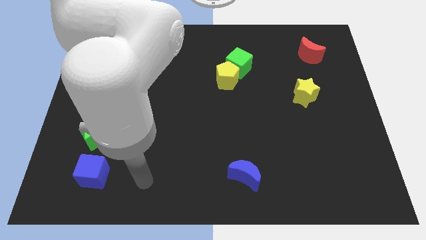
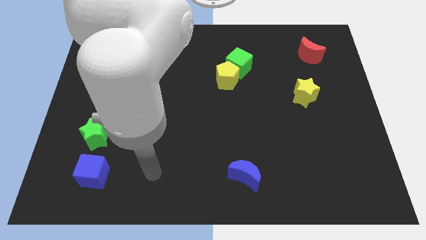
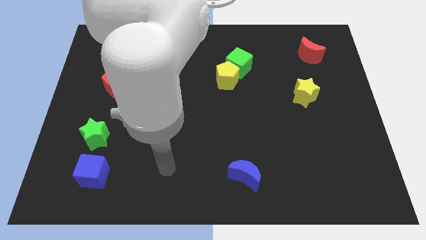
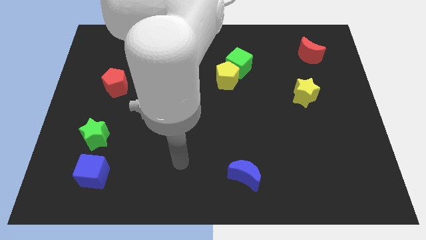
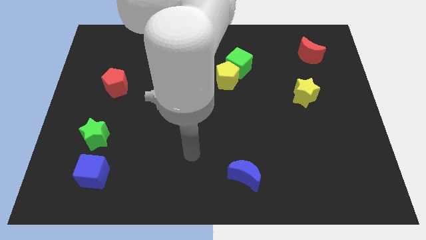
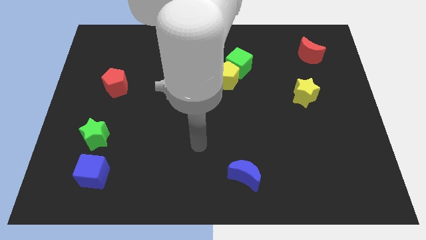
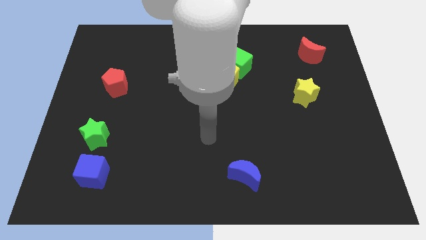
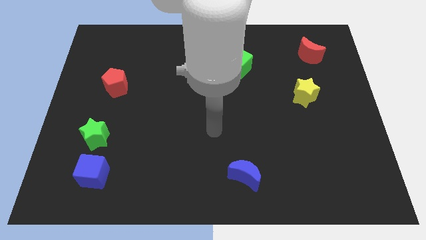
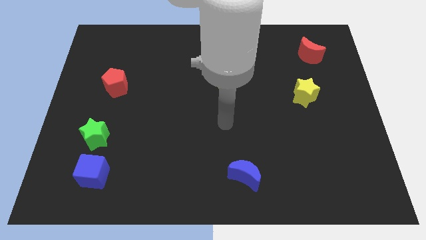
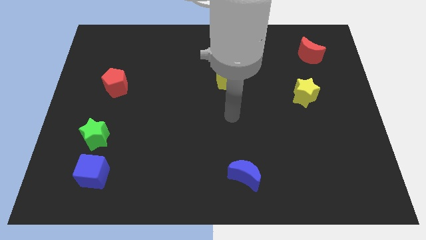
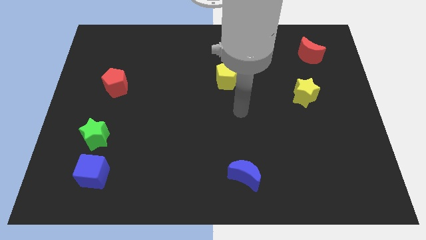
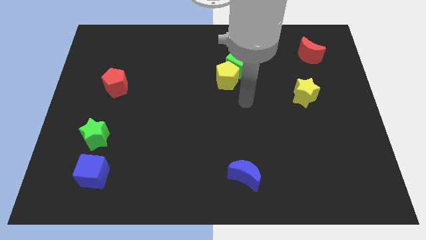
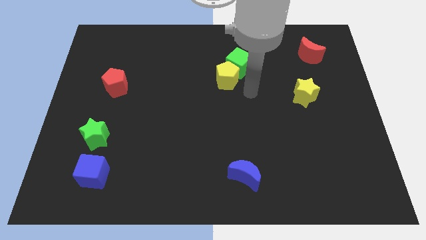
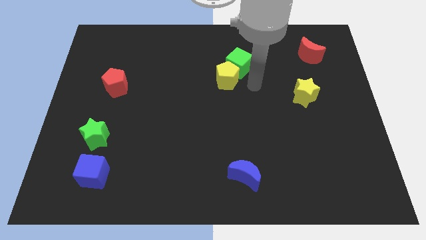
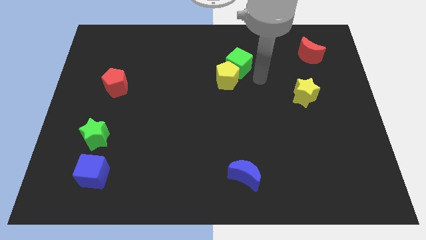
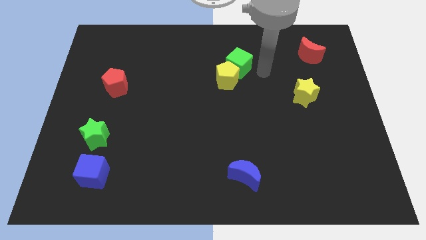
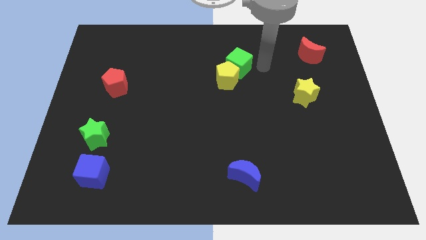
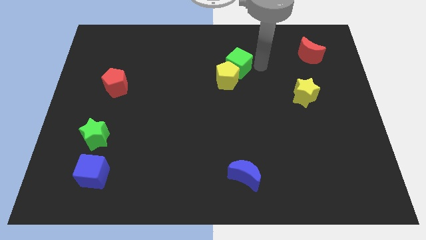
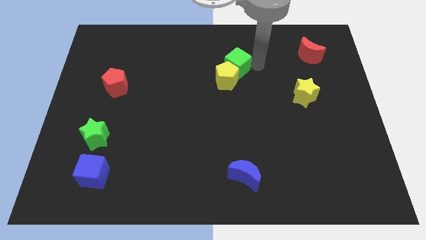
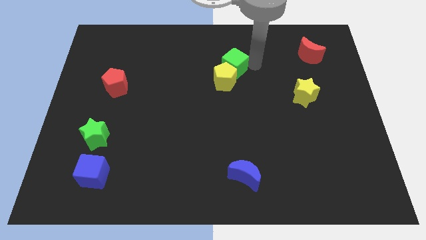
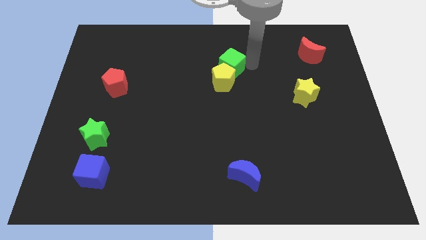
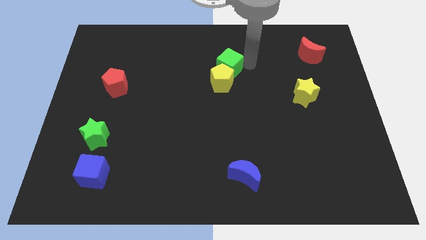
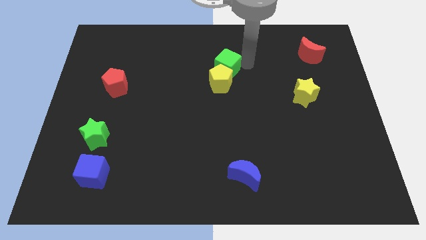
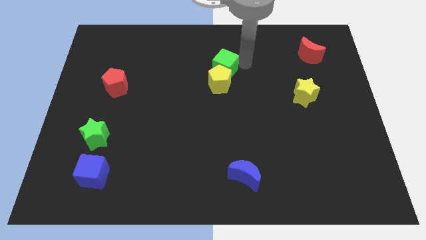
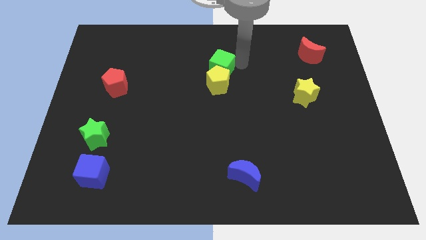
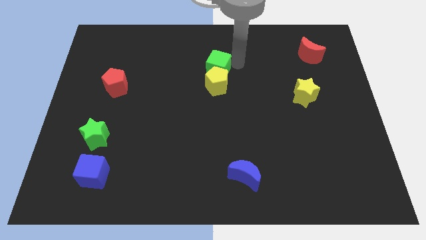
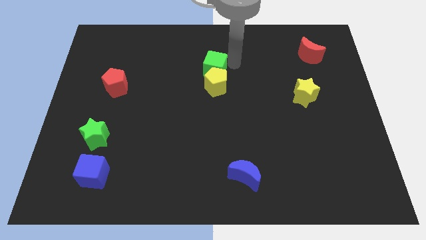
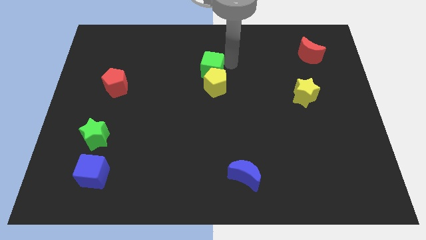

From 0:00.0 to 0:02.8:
slightly slide the green cube to the left

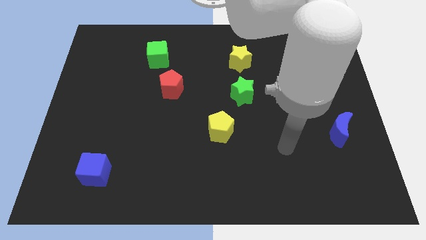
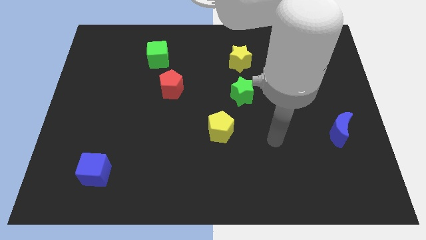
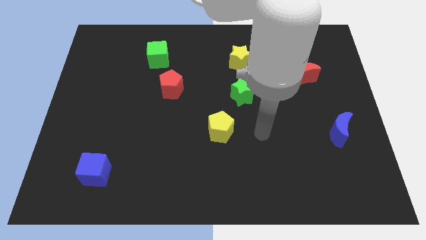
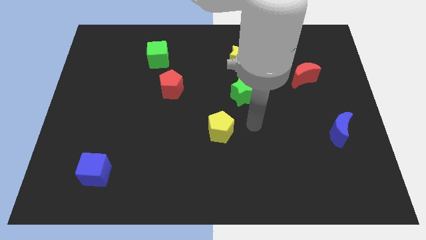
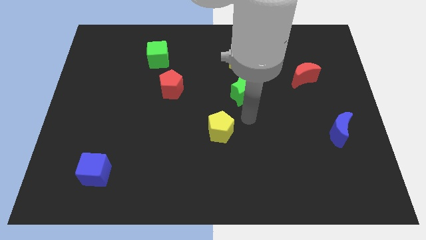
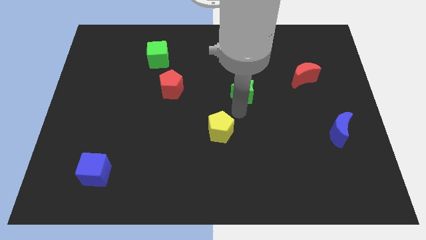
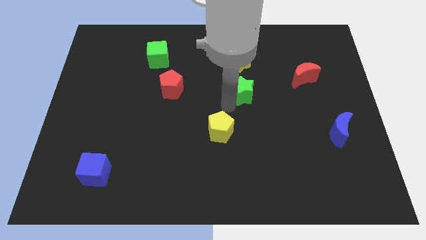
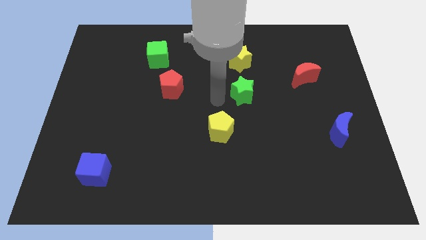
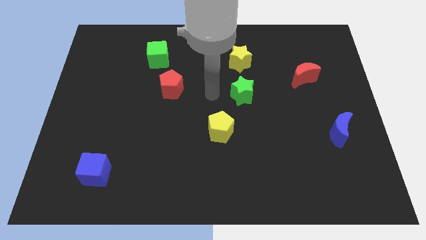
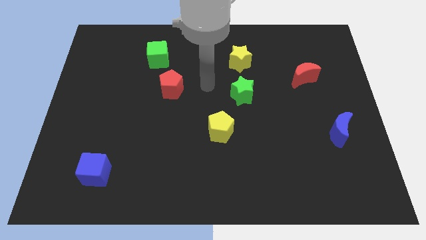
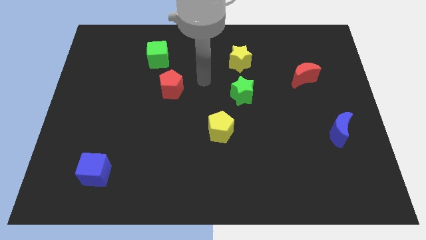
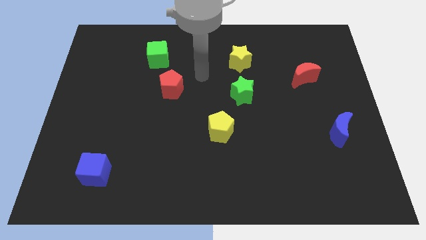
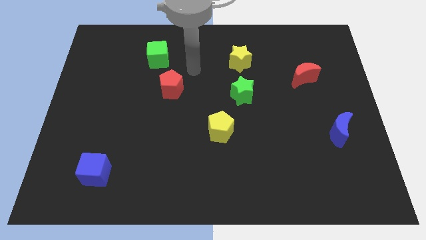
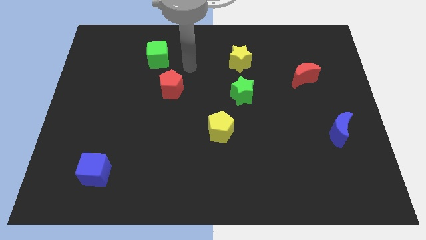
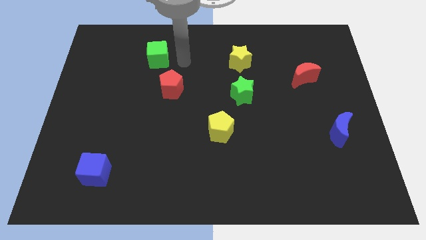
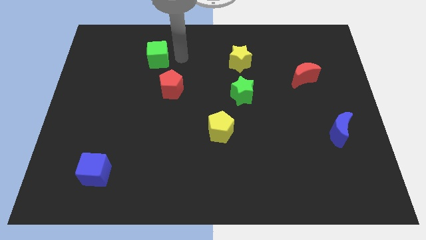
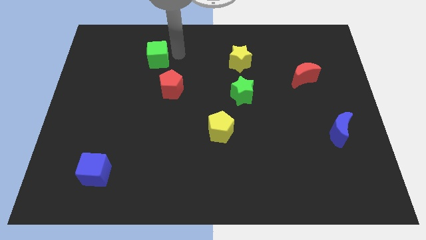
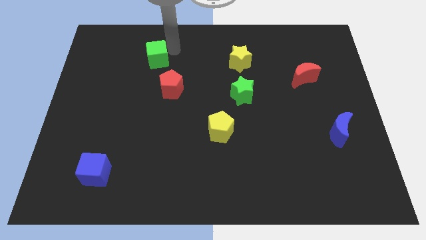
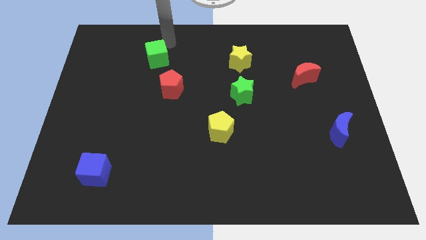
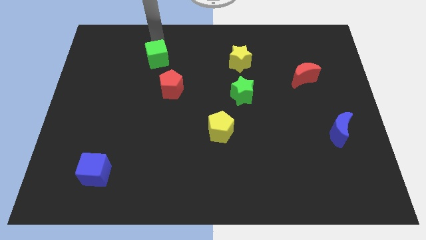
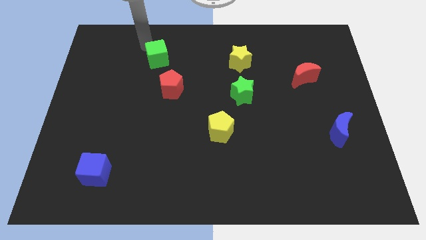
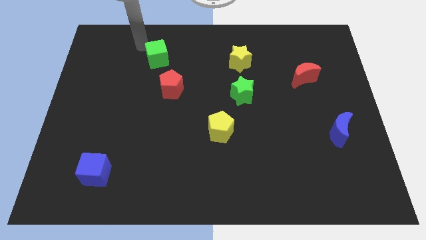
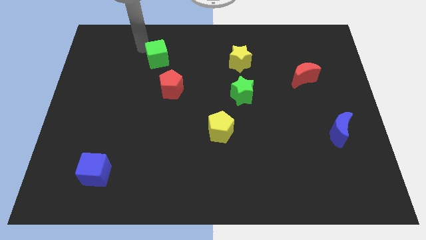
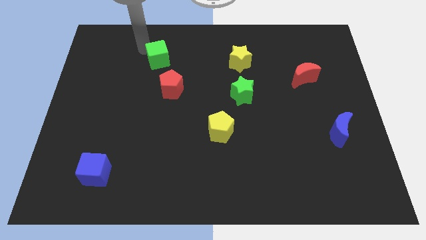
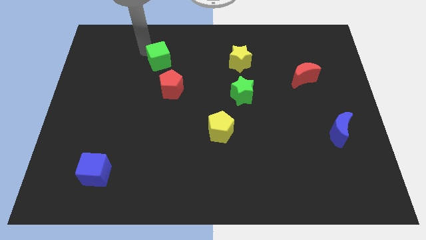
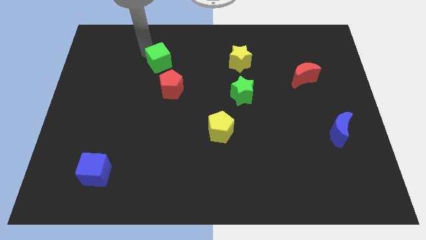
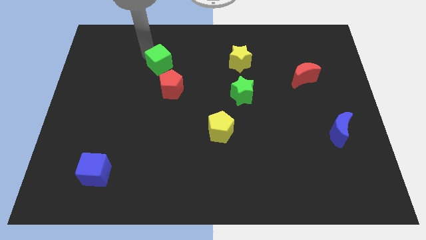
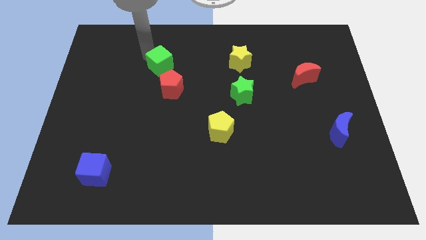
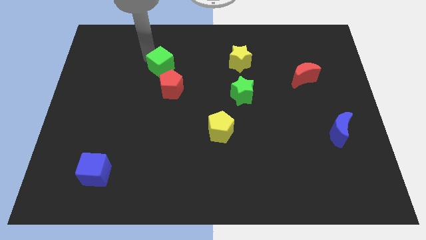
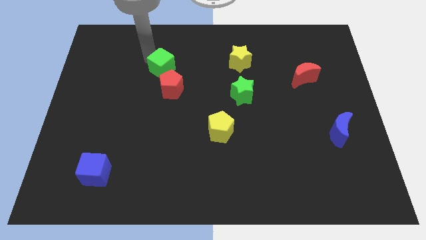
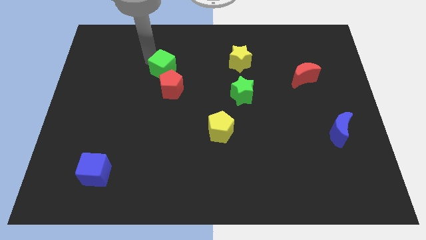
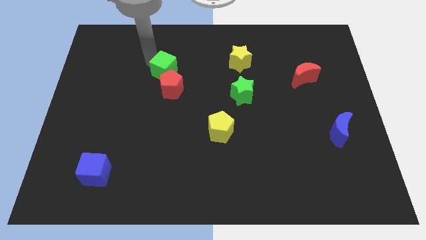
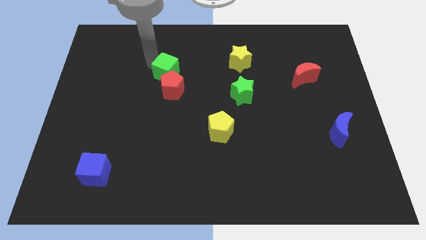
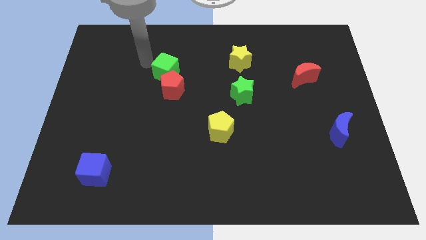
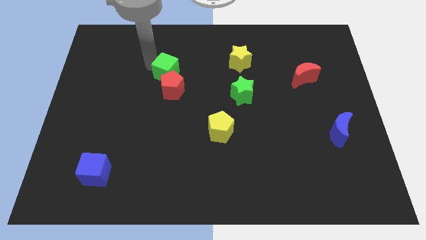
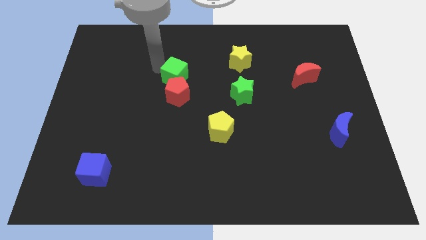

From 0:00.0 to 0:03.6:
push the green cube a bit down and right diagonally

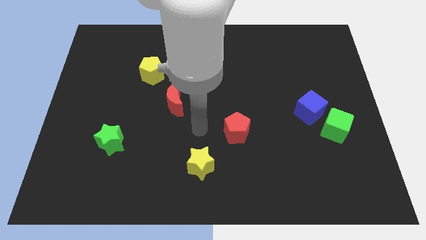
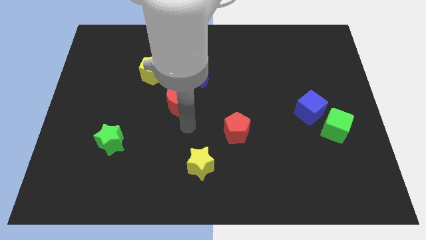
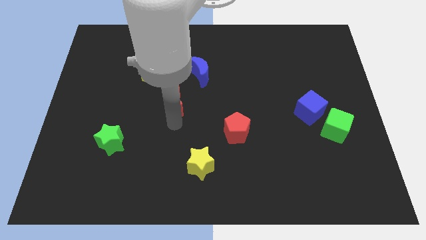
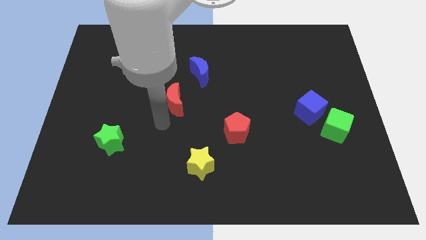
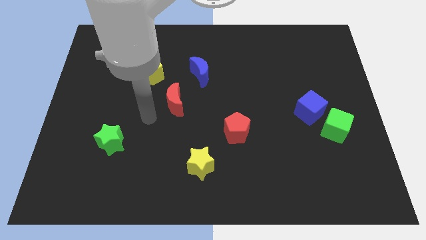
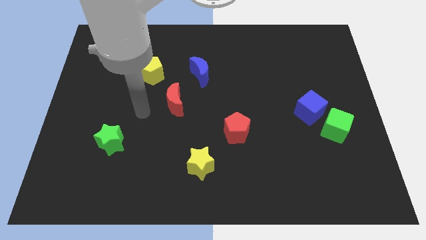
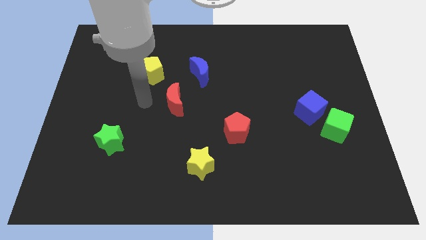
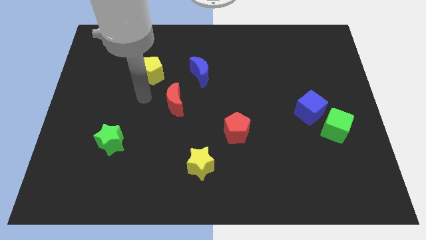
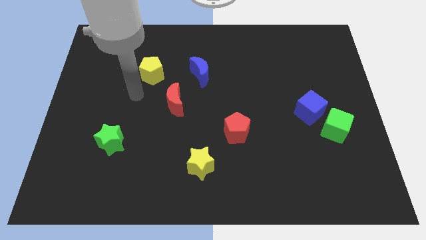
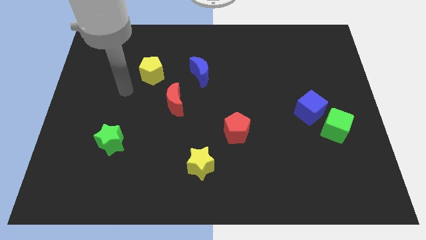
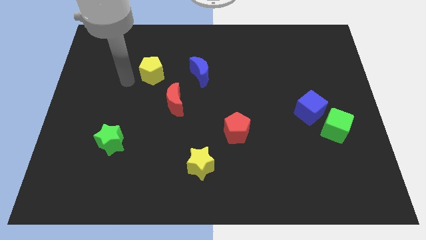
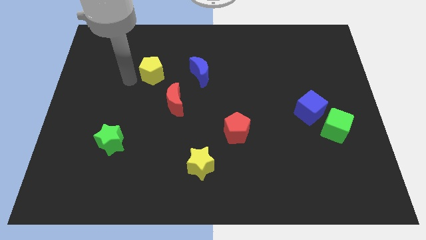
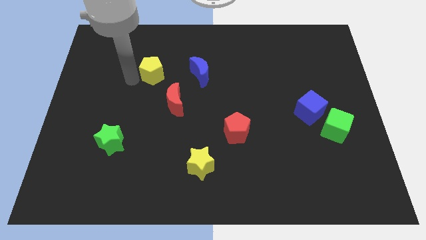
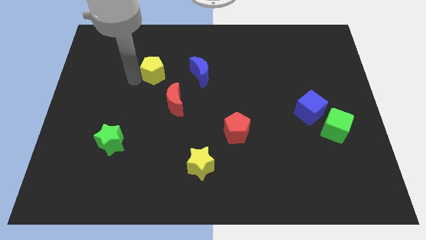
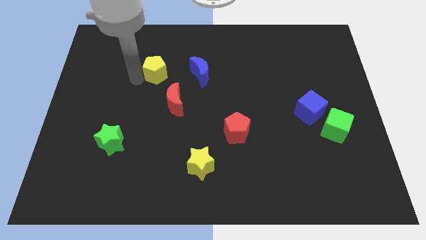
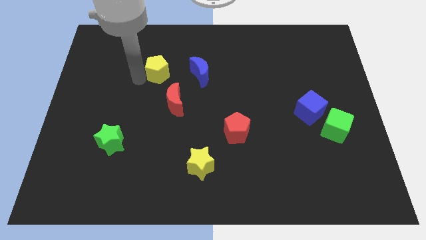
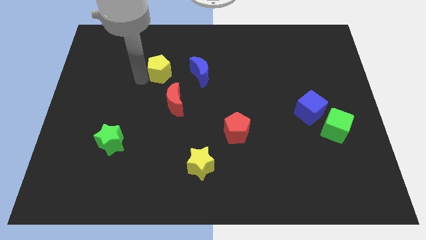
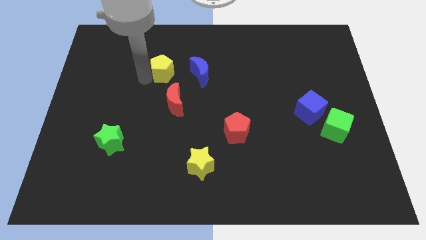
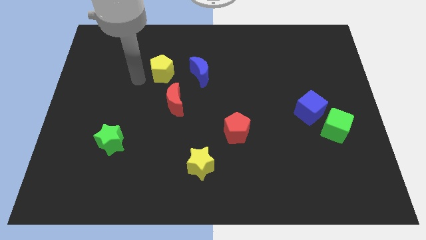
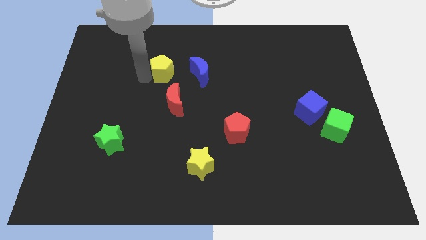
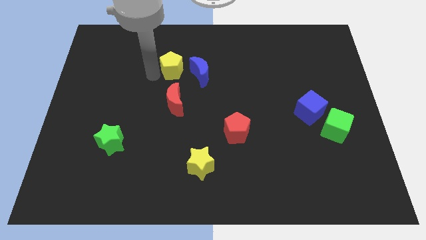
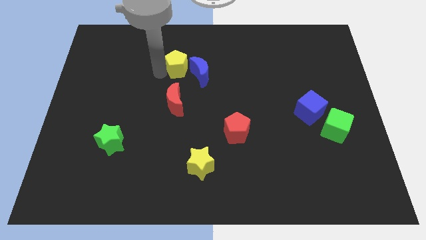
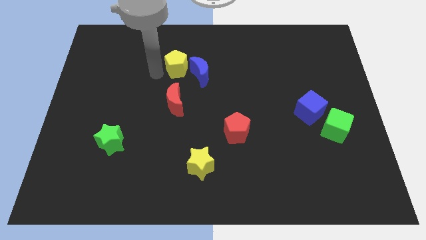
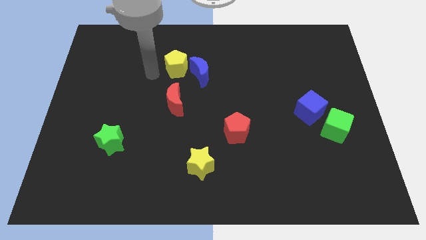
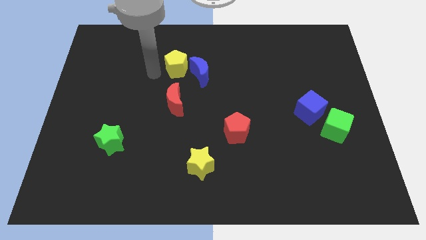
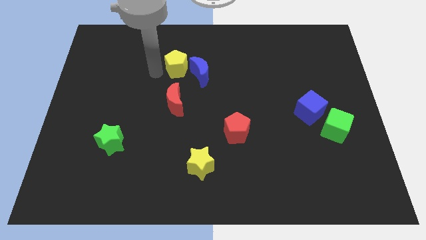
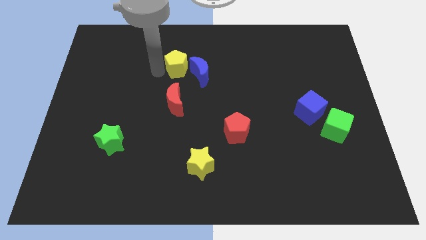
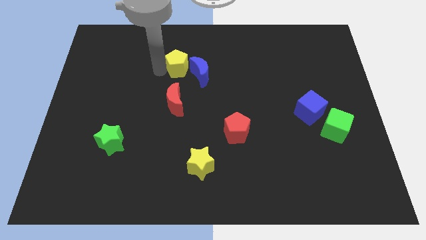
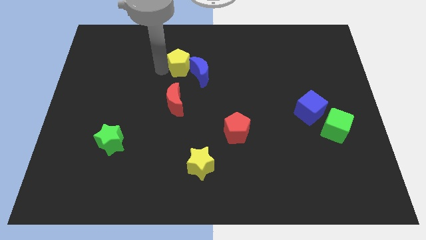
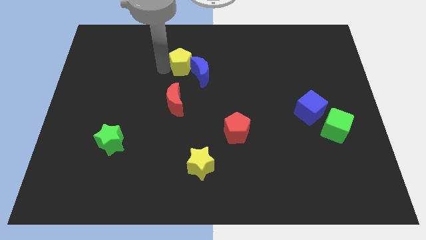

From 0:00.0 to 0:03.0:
slide the yellow pentagon right slightly
